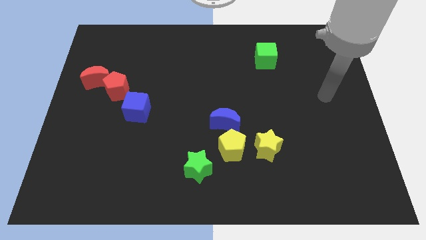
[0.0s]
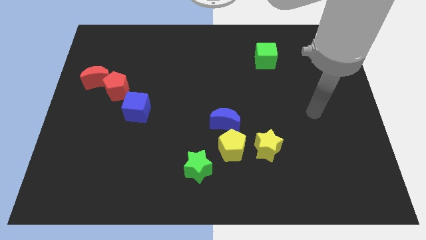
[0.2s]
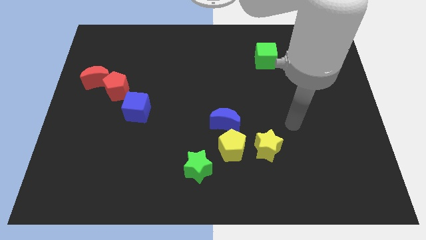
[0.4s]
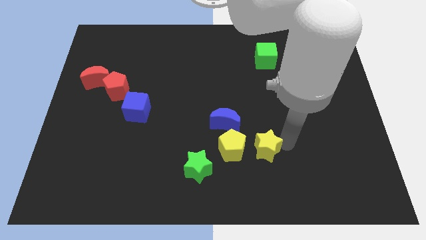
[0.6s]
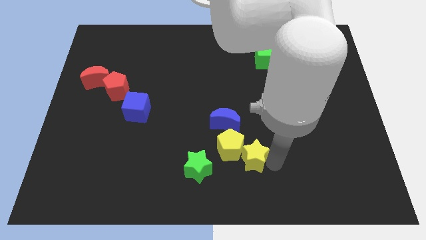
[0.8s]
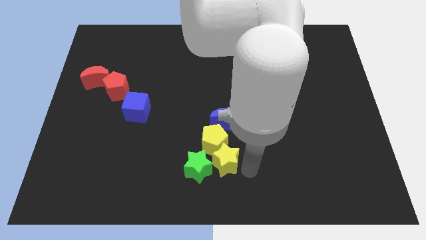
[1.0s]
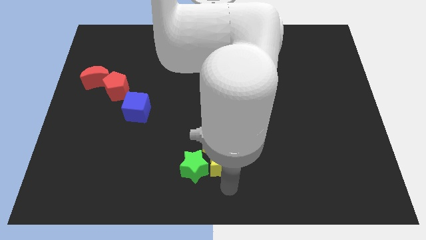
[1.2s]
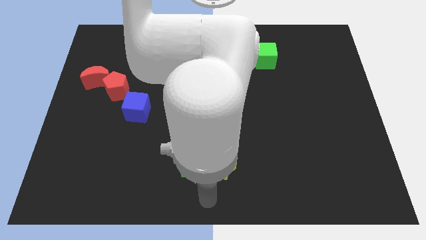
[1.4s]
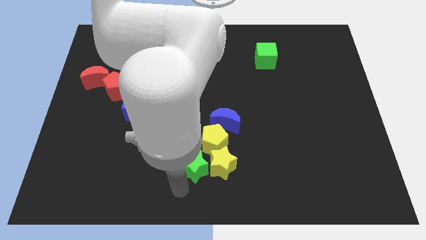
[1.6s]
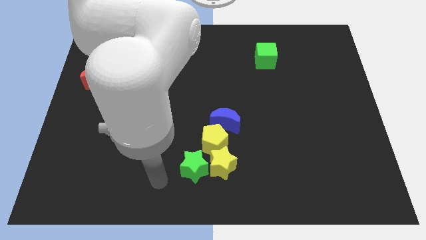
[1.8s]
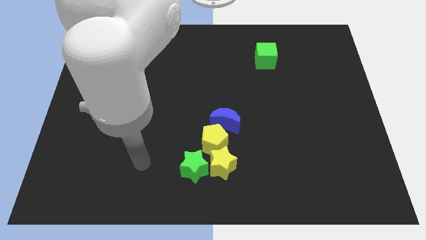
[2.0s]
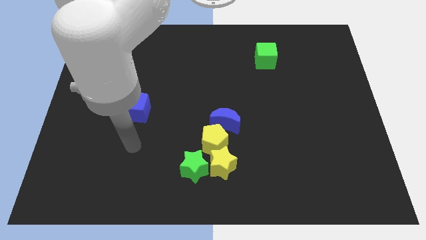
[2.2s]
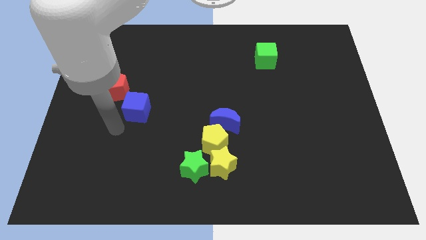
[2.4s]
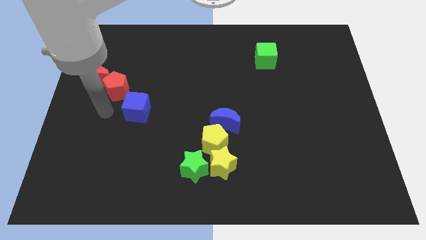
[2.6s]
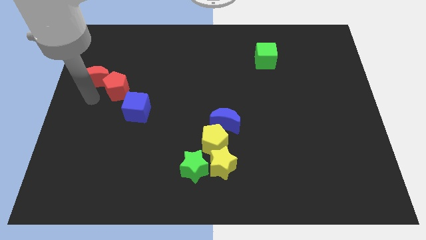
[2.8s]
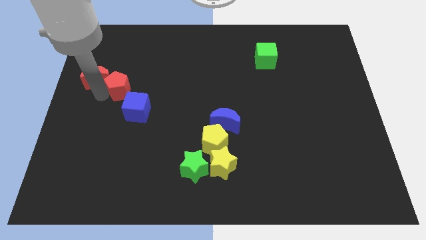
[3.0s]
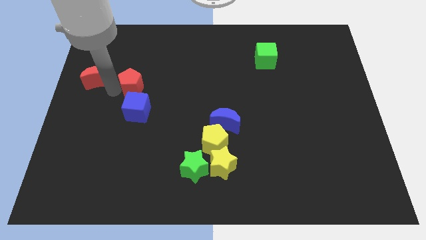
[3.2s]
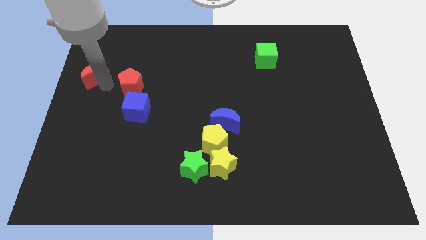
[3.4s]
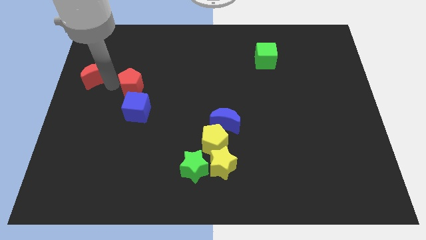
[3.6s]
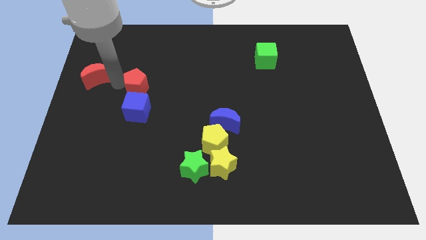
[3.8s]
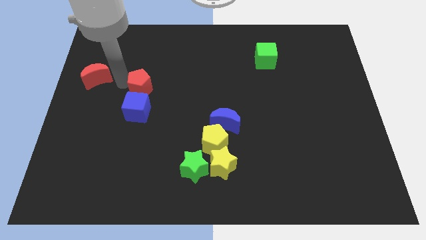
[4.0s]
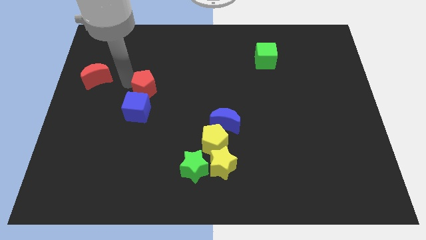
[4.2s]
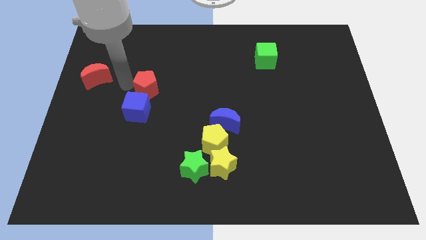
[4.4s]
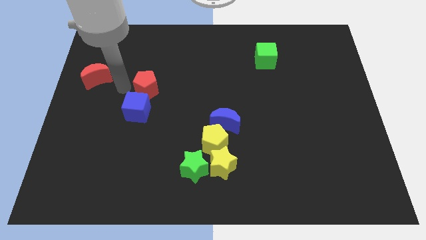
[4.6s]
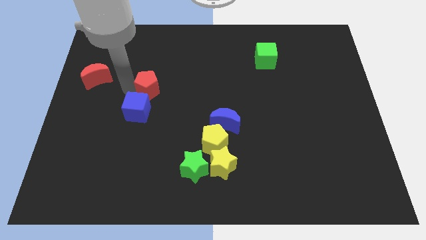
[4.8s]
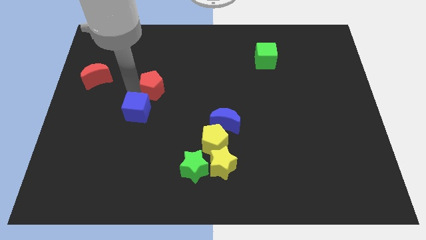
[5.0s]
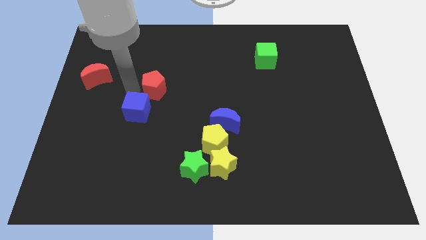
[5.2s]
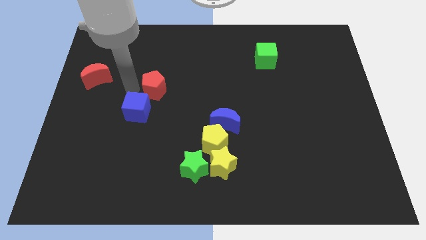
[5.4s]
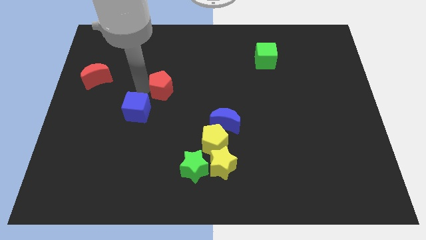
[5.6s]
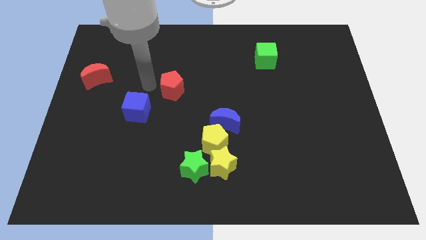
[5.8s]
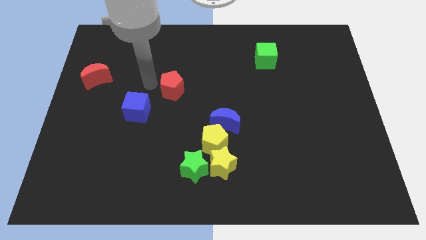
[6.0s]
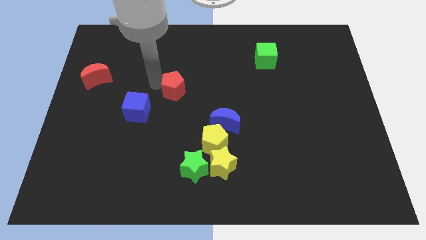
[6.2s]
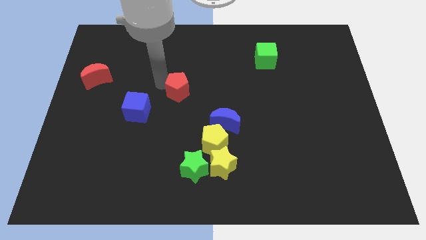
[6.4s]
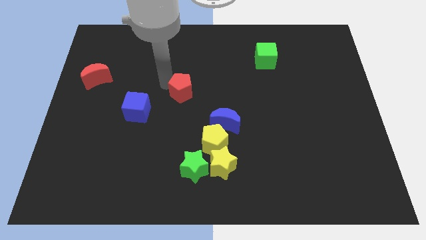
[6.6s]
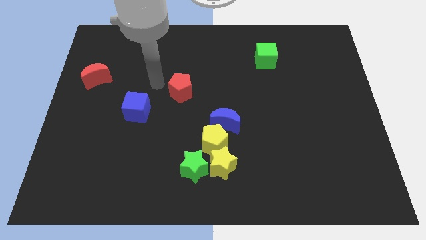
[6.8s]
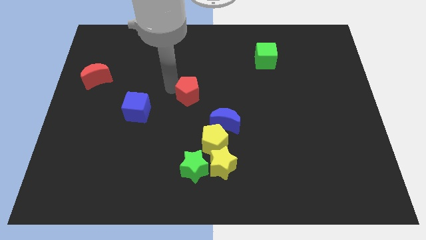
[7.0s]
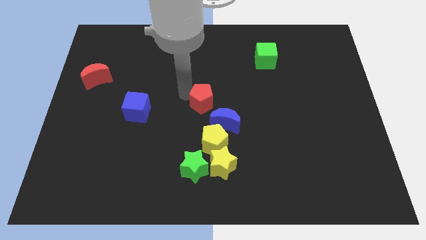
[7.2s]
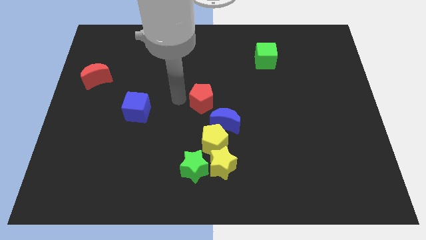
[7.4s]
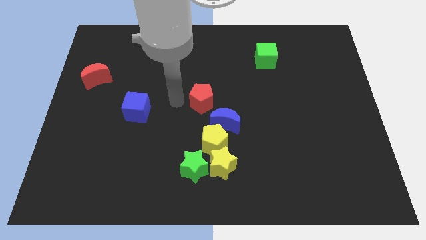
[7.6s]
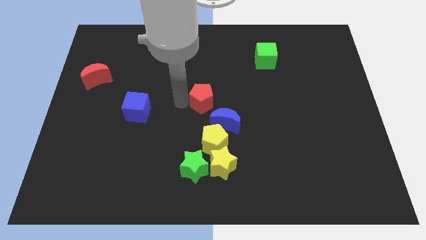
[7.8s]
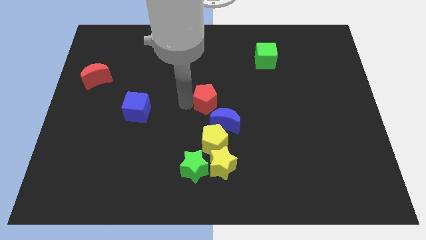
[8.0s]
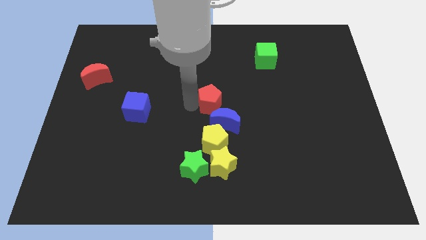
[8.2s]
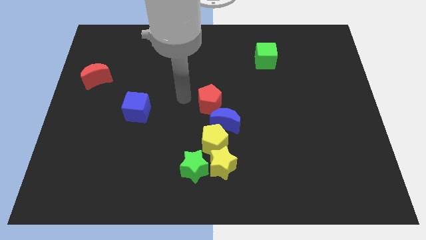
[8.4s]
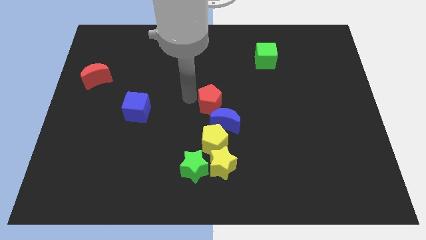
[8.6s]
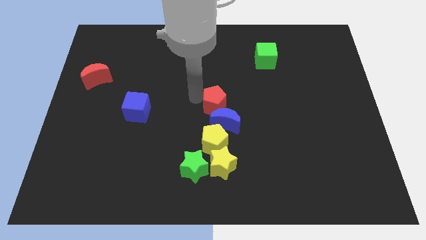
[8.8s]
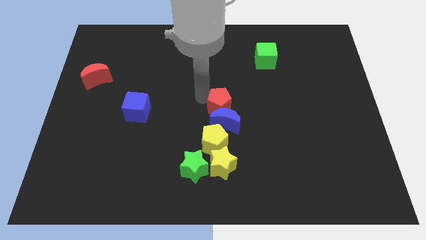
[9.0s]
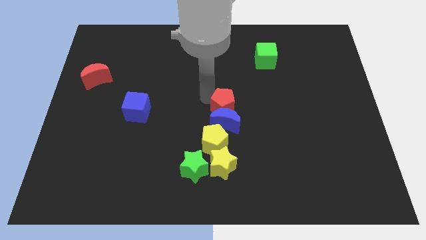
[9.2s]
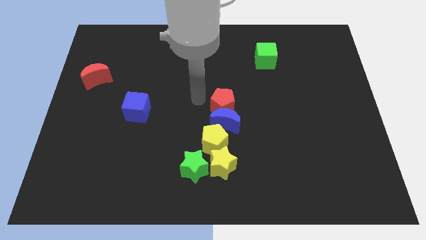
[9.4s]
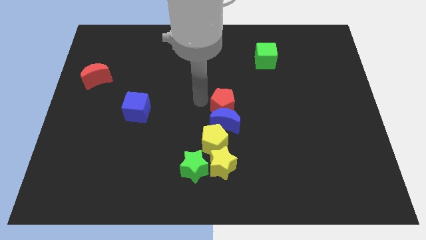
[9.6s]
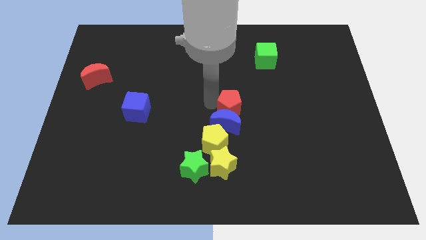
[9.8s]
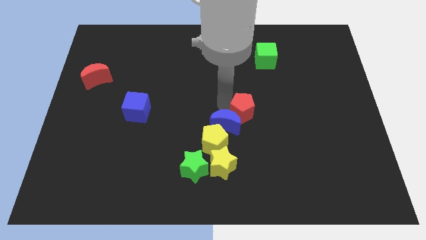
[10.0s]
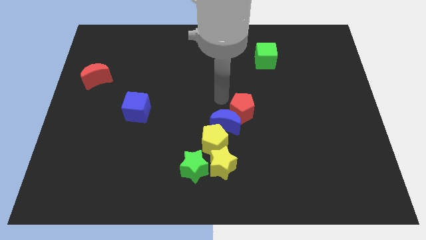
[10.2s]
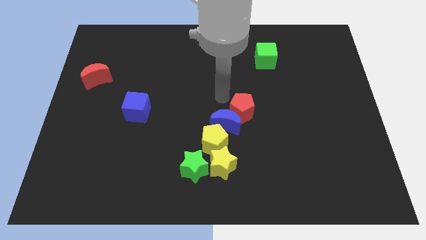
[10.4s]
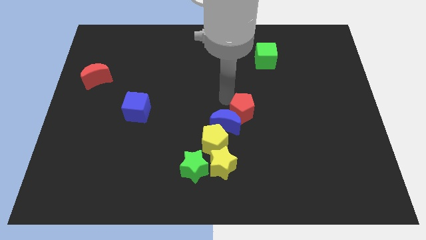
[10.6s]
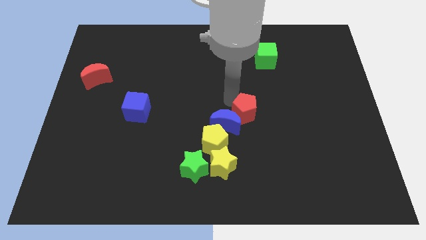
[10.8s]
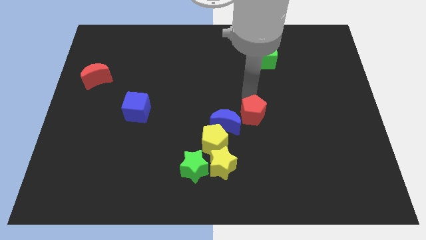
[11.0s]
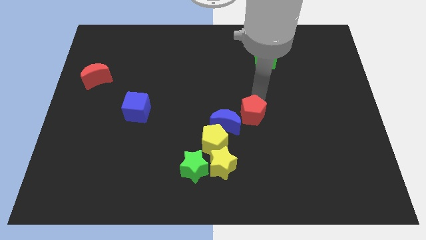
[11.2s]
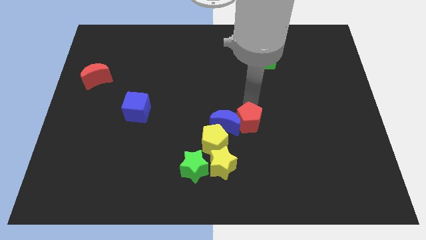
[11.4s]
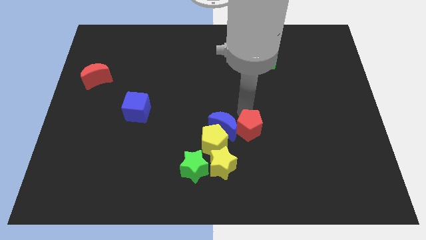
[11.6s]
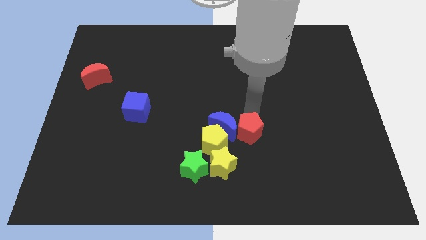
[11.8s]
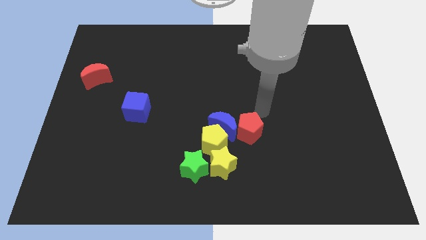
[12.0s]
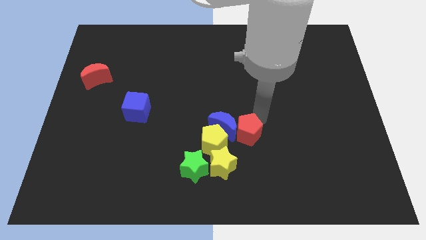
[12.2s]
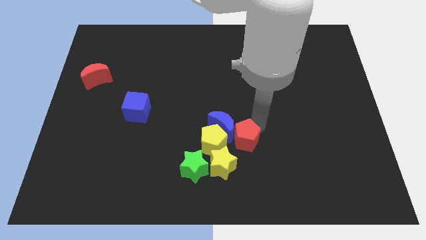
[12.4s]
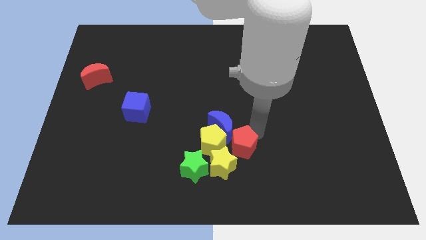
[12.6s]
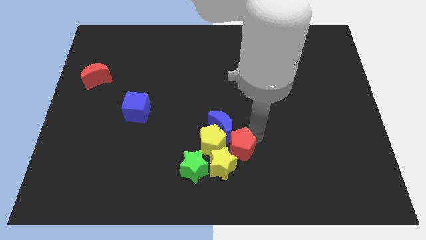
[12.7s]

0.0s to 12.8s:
slide the red pentagon towards the yellow star
